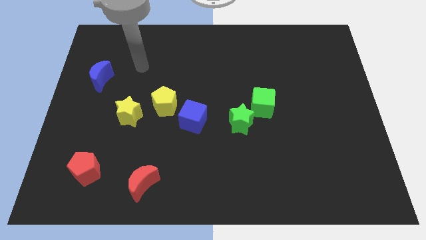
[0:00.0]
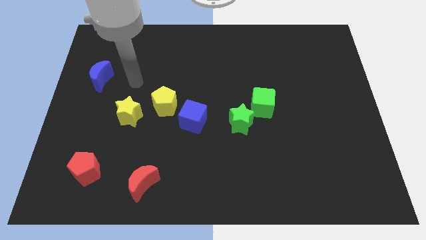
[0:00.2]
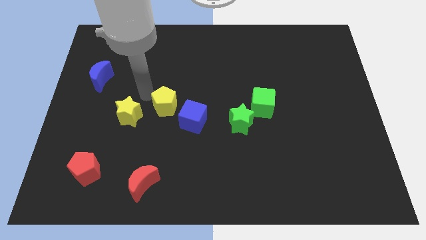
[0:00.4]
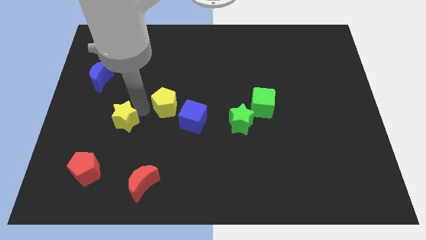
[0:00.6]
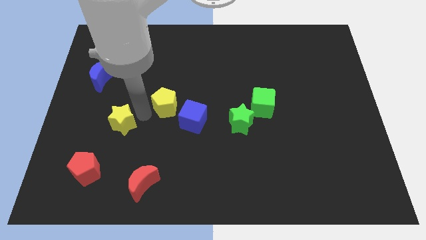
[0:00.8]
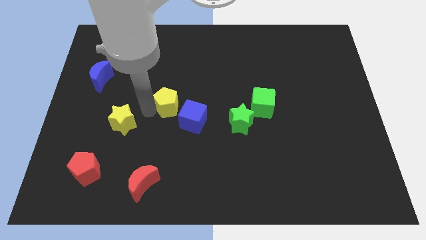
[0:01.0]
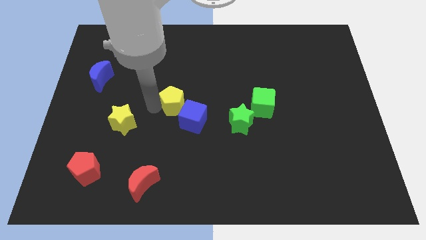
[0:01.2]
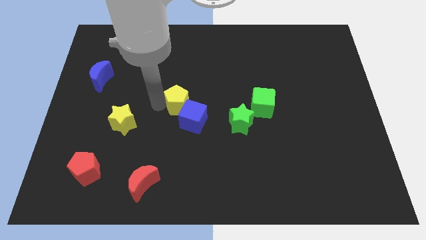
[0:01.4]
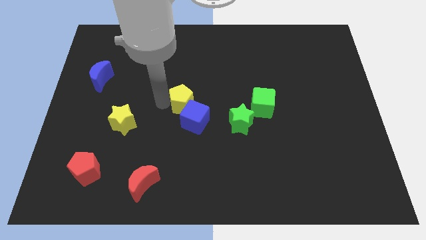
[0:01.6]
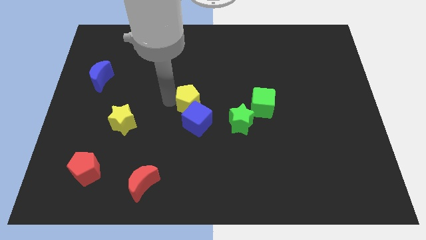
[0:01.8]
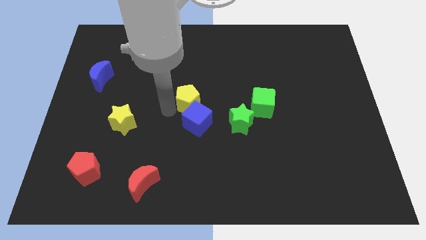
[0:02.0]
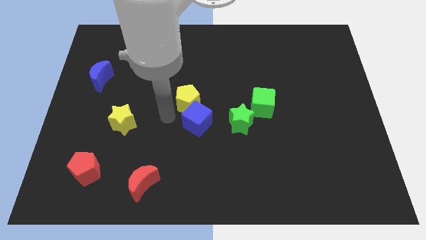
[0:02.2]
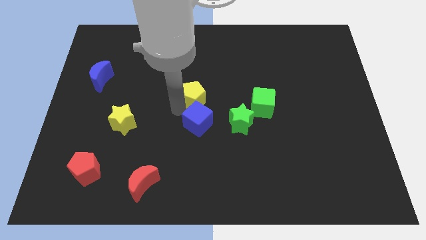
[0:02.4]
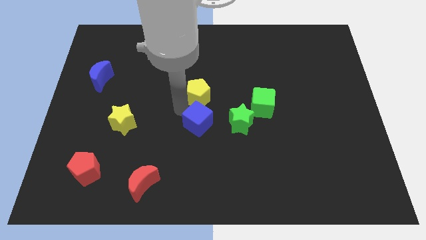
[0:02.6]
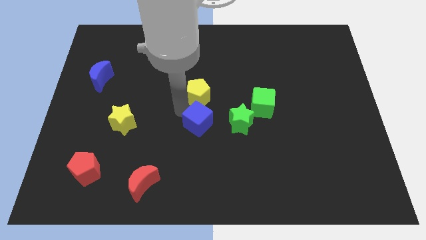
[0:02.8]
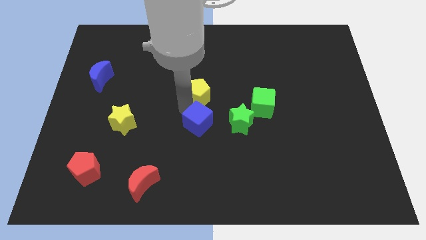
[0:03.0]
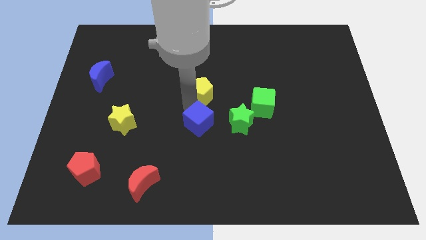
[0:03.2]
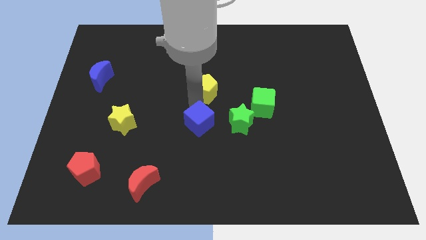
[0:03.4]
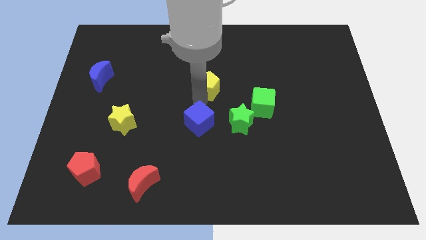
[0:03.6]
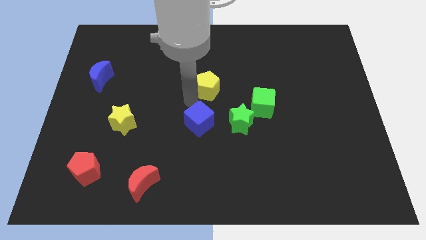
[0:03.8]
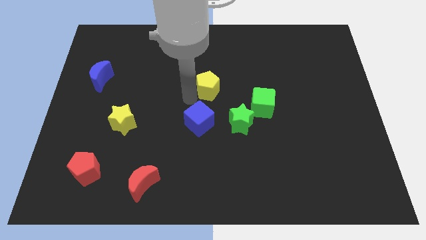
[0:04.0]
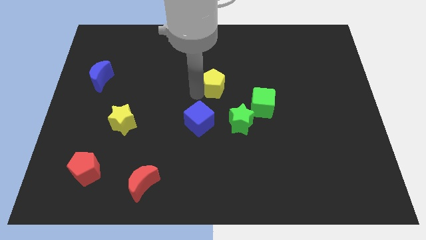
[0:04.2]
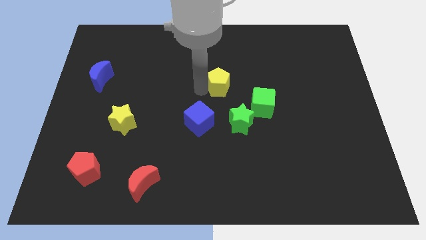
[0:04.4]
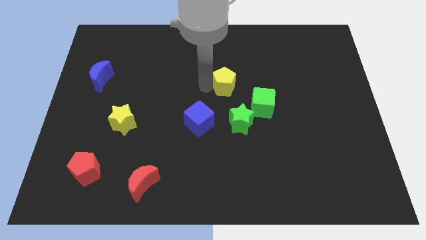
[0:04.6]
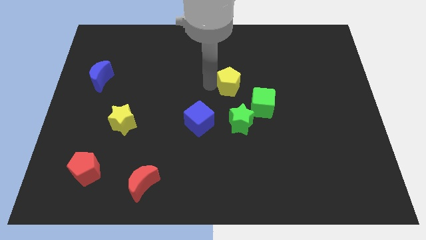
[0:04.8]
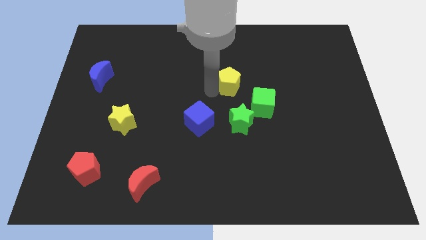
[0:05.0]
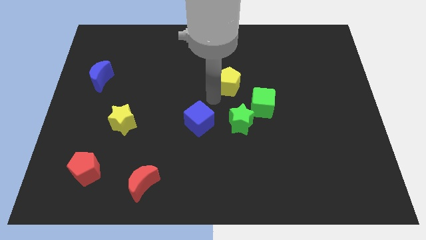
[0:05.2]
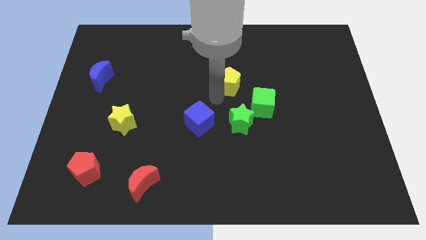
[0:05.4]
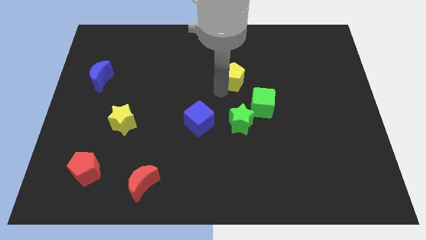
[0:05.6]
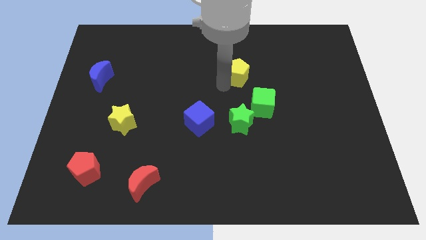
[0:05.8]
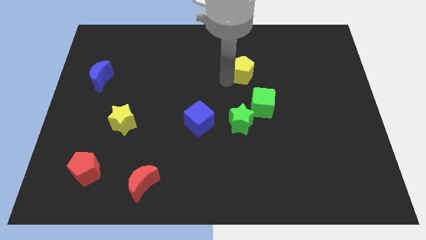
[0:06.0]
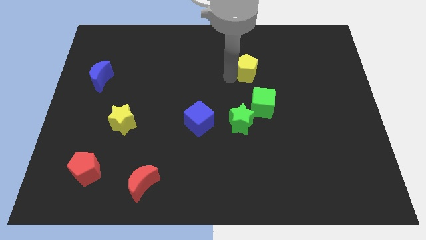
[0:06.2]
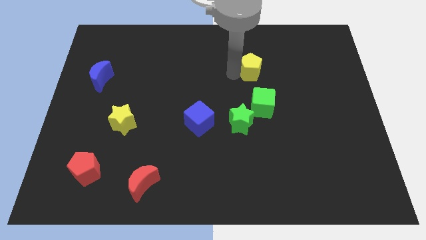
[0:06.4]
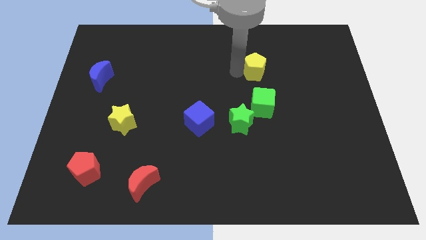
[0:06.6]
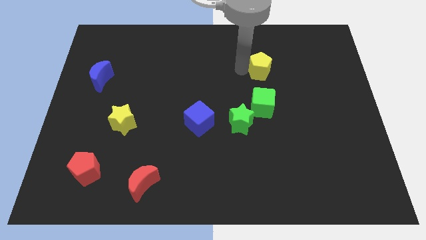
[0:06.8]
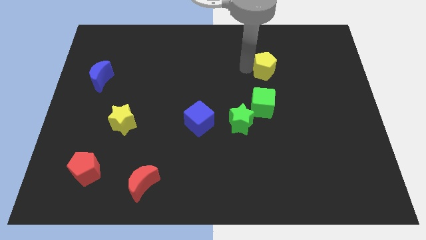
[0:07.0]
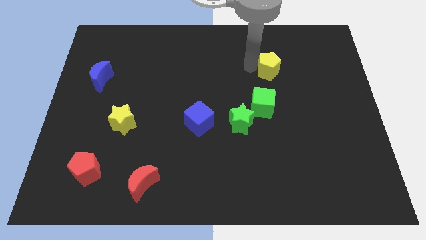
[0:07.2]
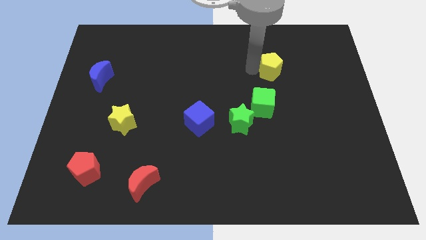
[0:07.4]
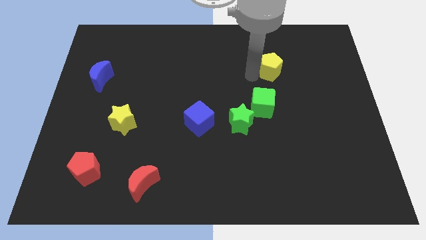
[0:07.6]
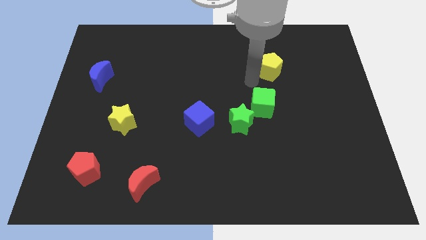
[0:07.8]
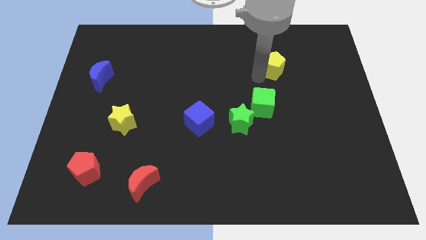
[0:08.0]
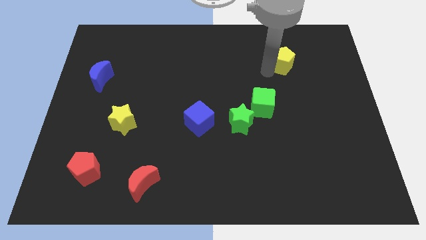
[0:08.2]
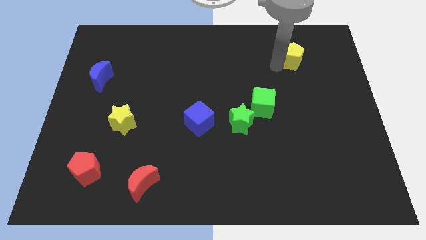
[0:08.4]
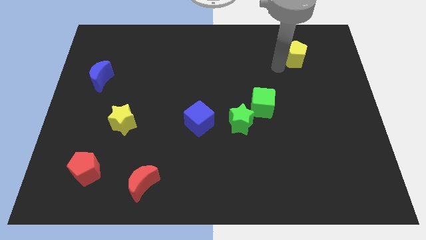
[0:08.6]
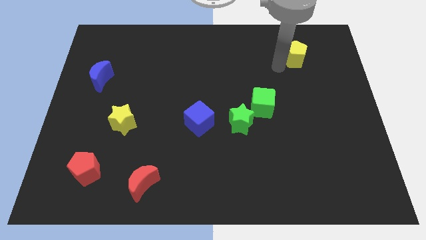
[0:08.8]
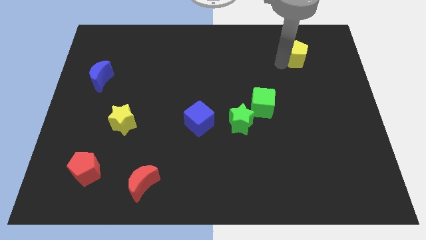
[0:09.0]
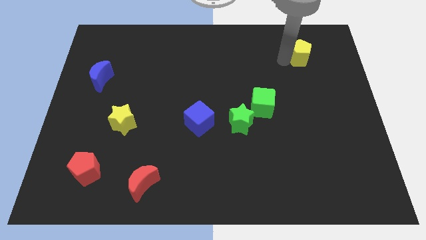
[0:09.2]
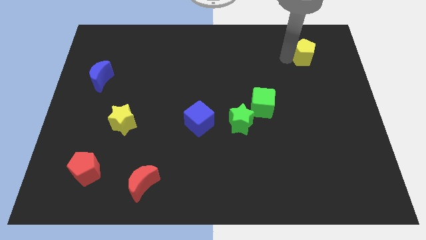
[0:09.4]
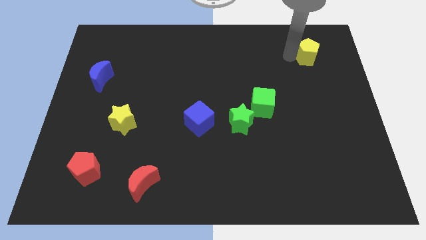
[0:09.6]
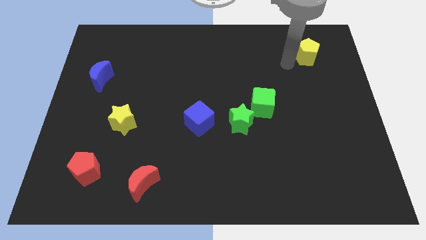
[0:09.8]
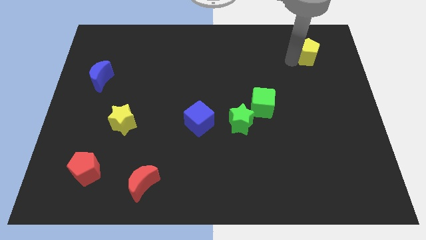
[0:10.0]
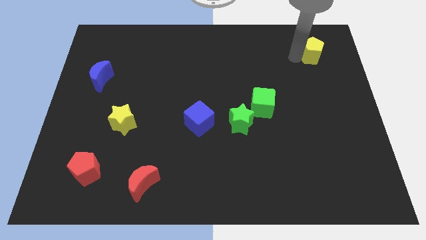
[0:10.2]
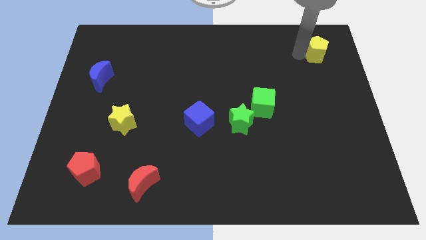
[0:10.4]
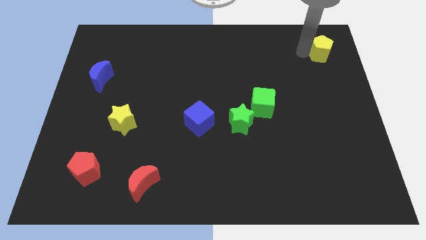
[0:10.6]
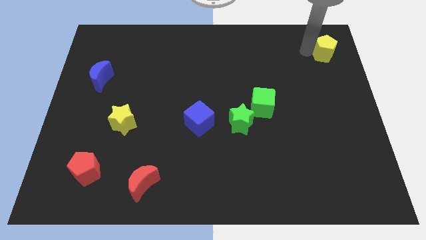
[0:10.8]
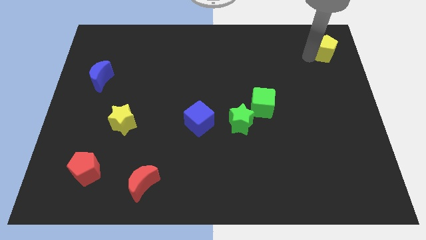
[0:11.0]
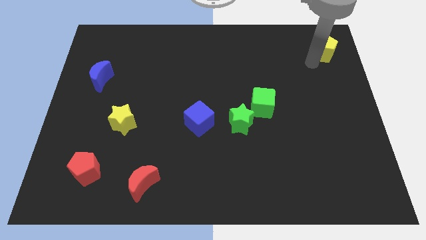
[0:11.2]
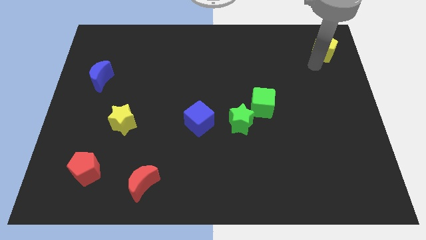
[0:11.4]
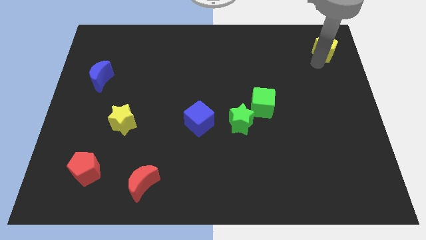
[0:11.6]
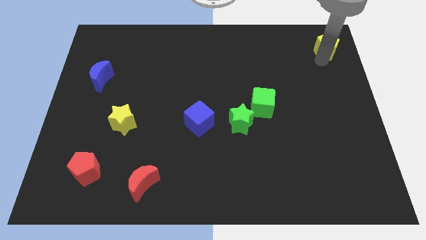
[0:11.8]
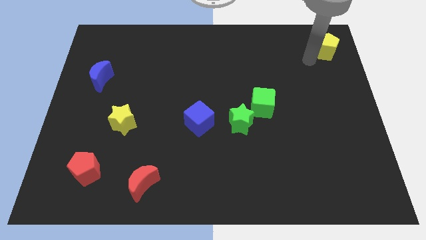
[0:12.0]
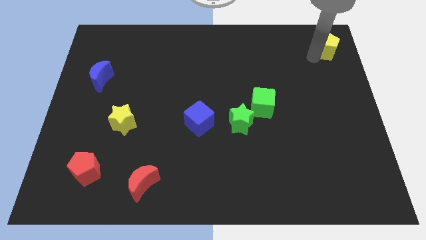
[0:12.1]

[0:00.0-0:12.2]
slide the yellow pentagon to the top right
